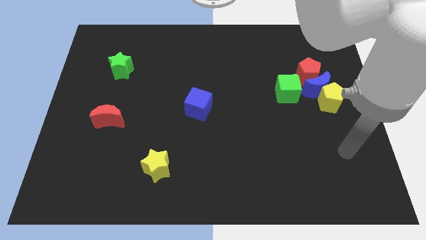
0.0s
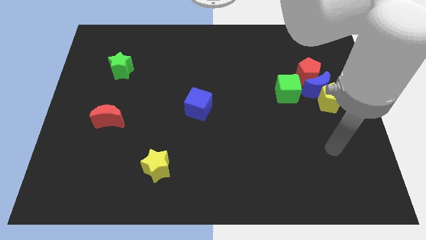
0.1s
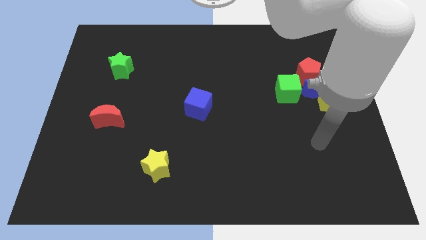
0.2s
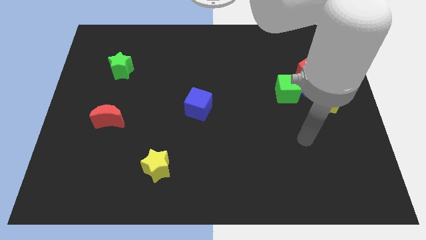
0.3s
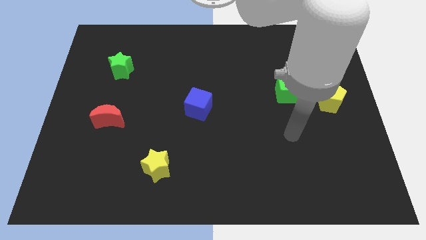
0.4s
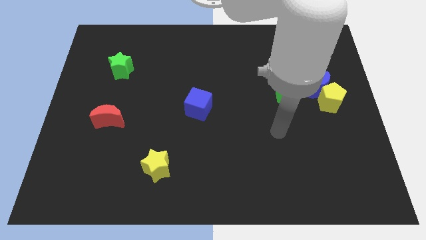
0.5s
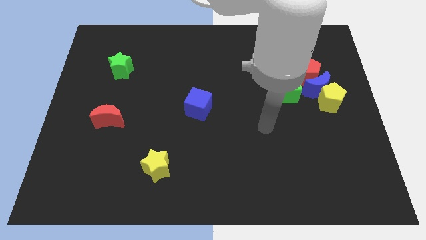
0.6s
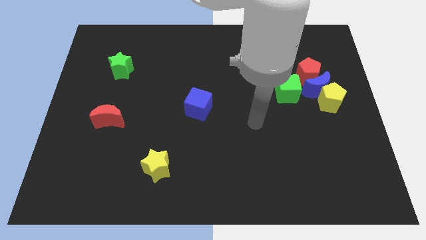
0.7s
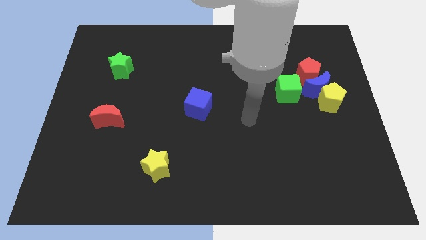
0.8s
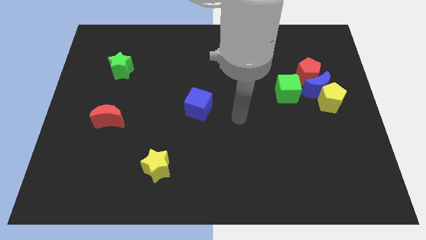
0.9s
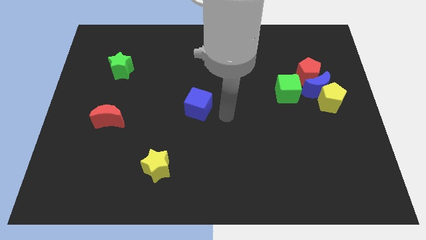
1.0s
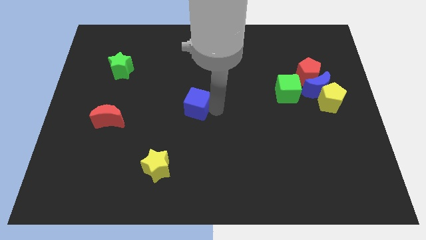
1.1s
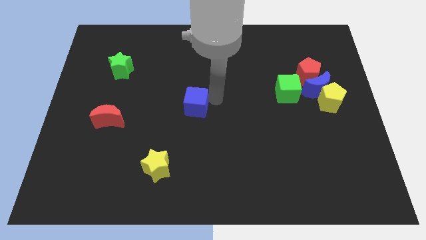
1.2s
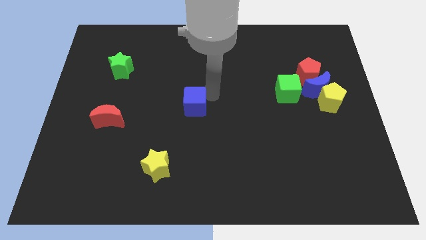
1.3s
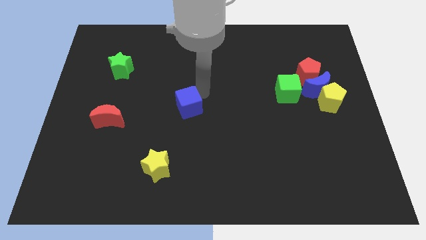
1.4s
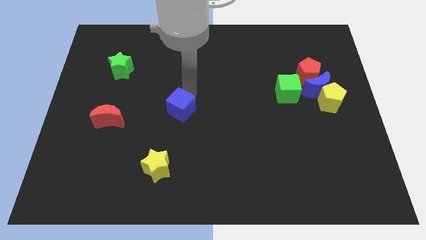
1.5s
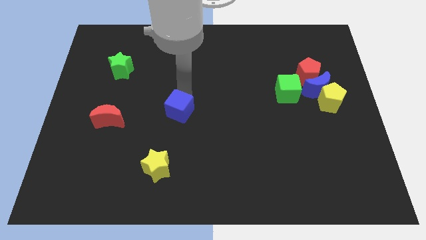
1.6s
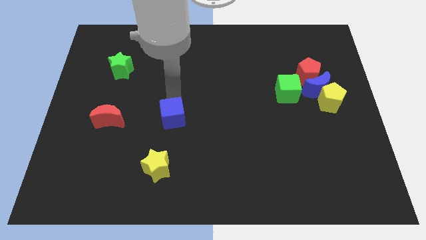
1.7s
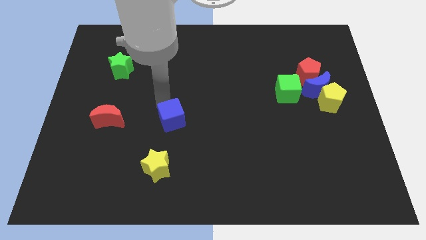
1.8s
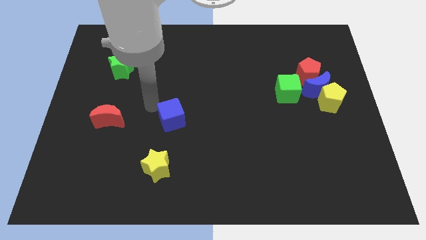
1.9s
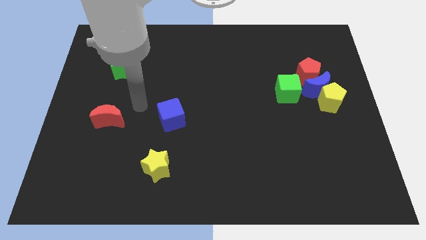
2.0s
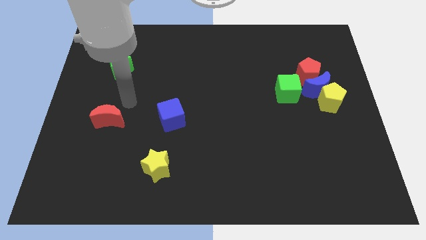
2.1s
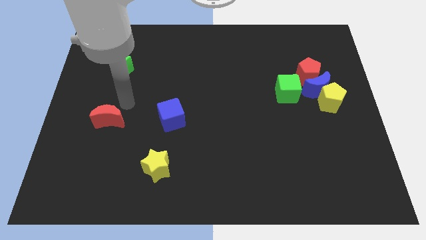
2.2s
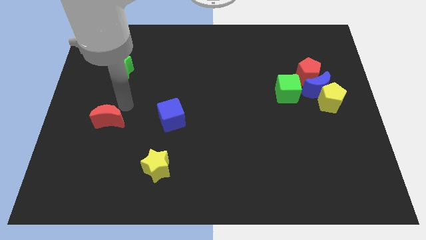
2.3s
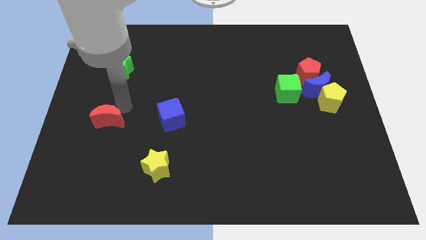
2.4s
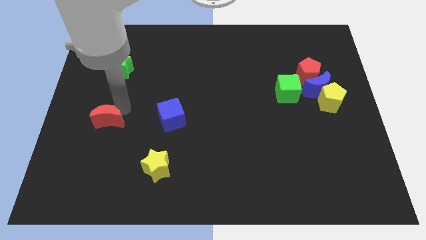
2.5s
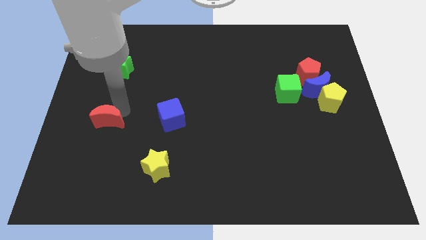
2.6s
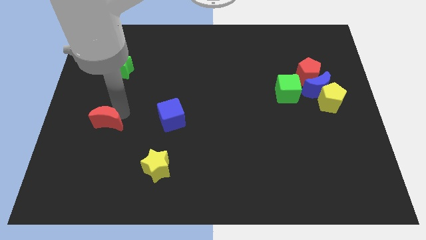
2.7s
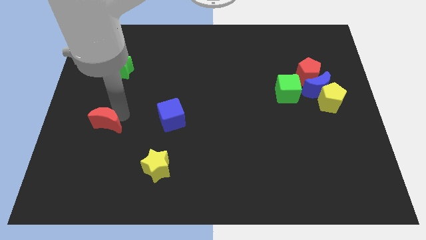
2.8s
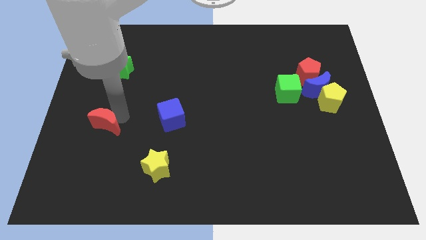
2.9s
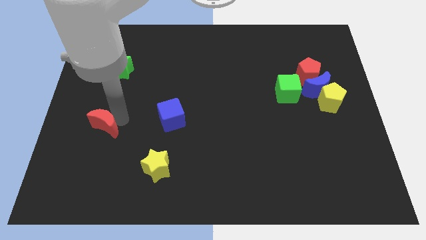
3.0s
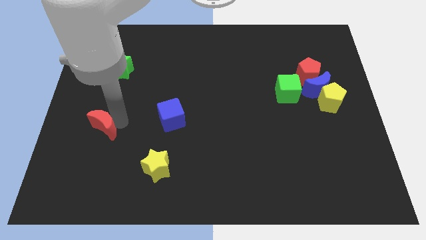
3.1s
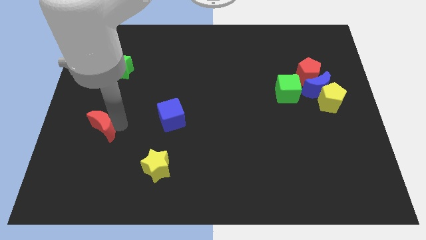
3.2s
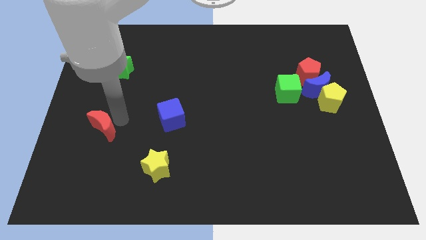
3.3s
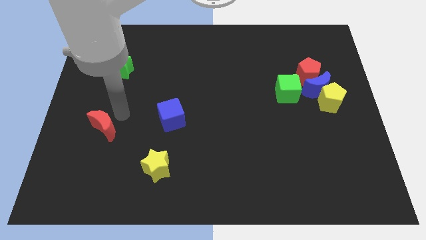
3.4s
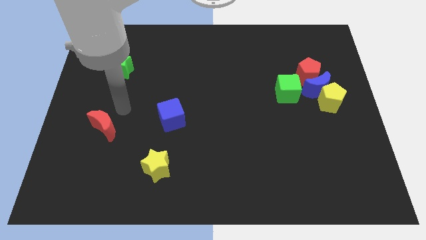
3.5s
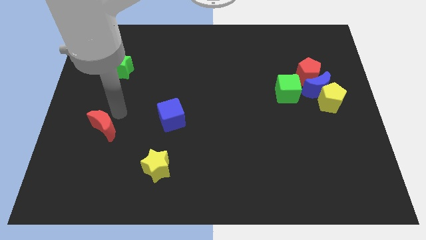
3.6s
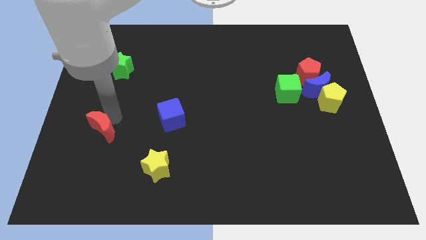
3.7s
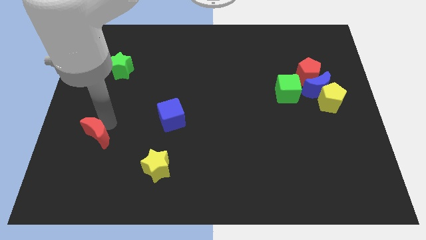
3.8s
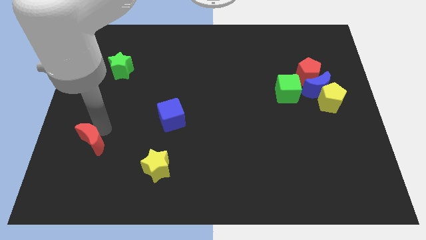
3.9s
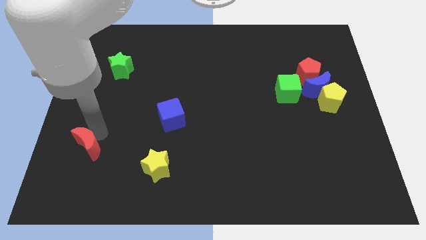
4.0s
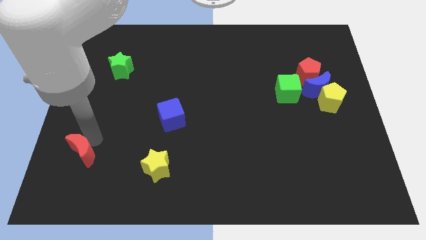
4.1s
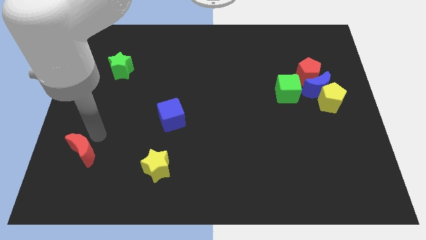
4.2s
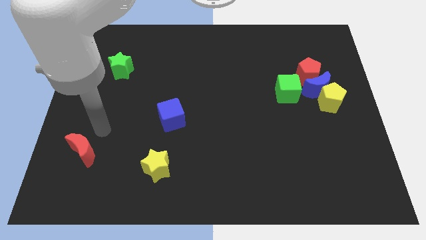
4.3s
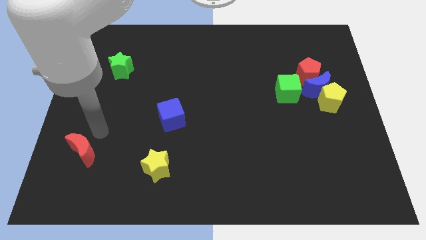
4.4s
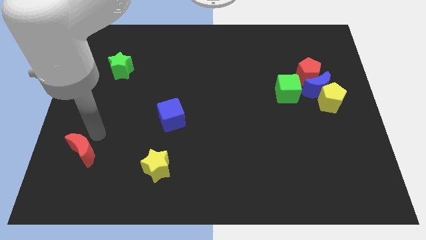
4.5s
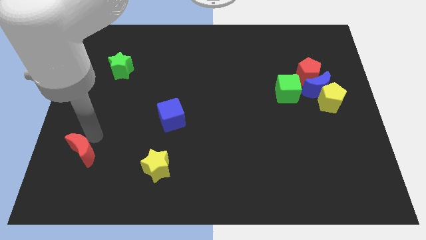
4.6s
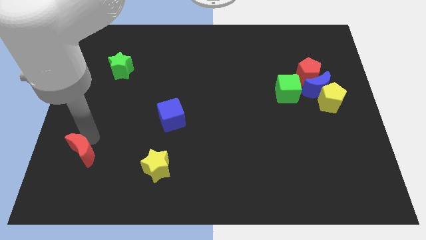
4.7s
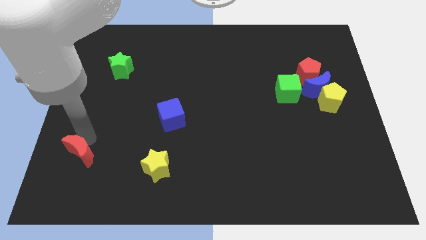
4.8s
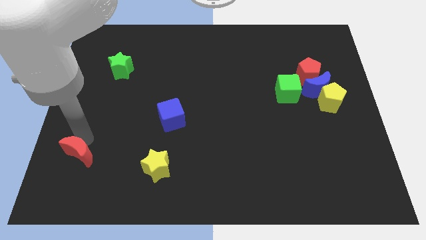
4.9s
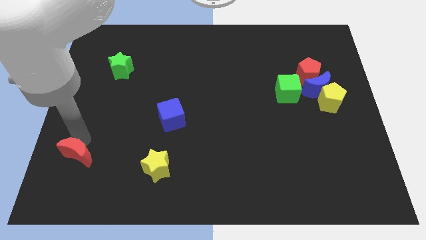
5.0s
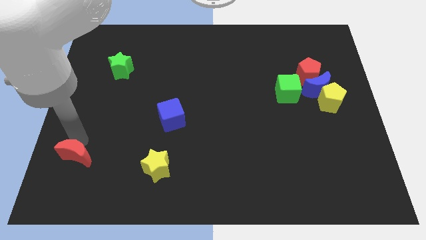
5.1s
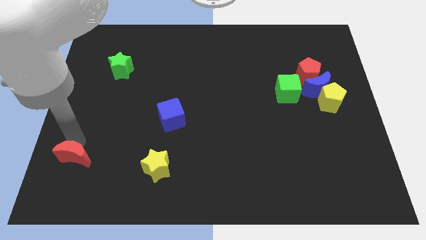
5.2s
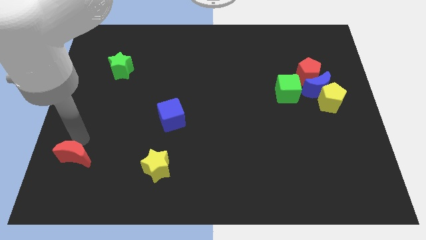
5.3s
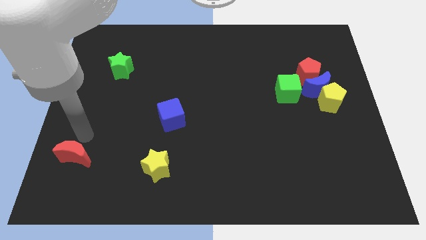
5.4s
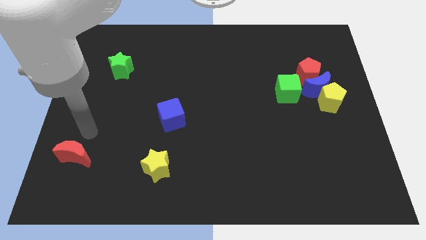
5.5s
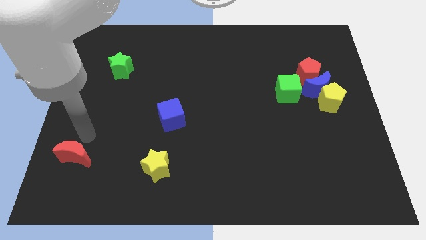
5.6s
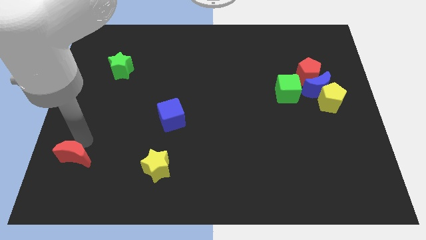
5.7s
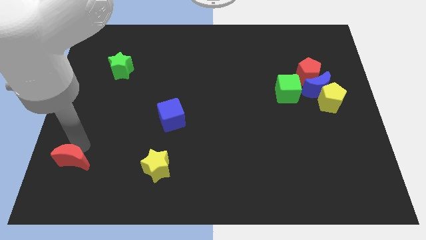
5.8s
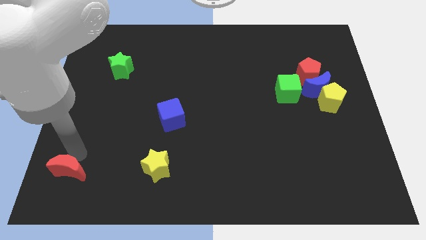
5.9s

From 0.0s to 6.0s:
slide the red moon to the bottom left corner
